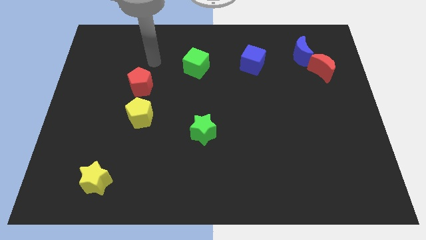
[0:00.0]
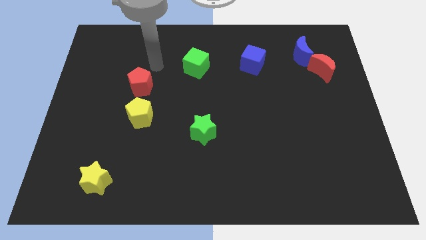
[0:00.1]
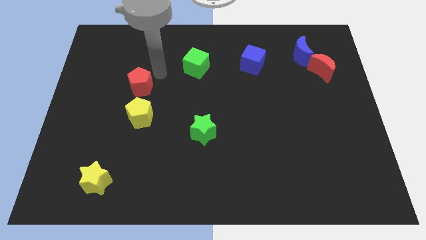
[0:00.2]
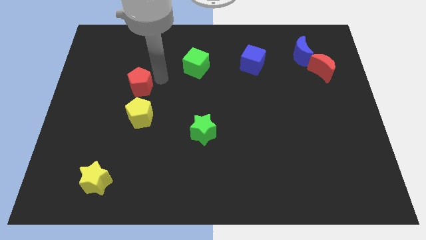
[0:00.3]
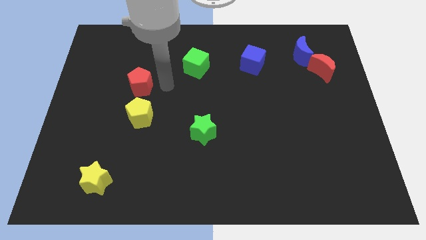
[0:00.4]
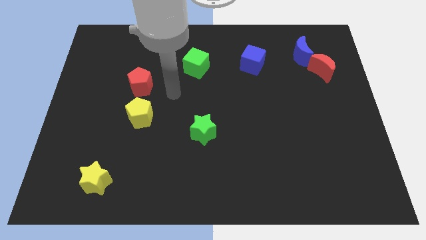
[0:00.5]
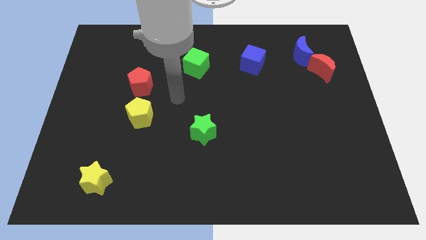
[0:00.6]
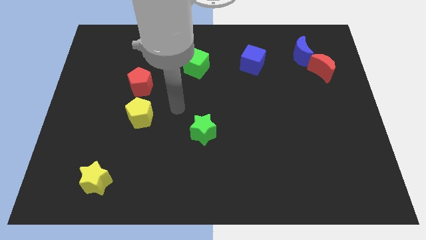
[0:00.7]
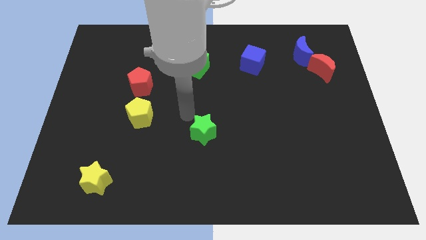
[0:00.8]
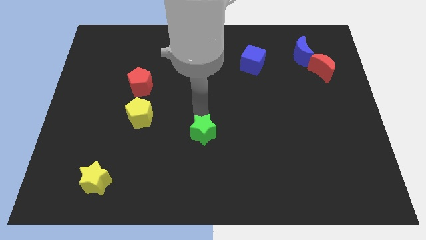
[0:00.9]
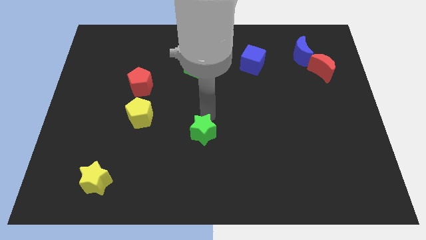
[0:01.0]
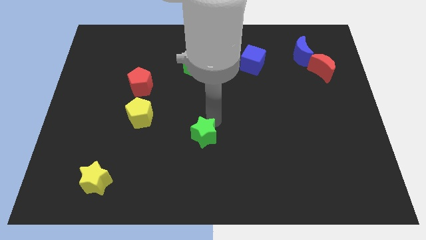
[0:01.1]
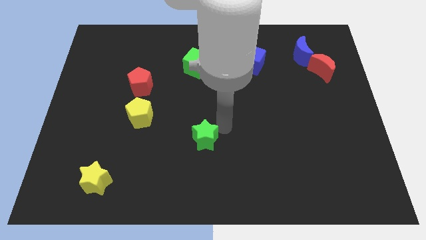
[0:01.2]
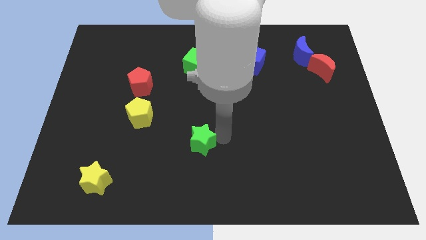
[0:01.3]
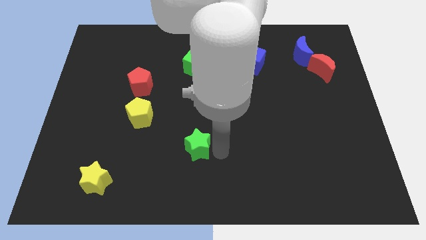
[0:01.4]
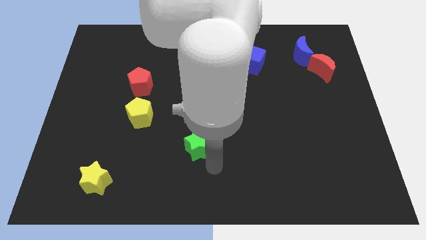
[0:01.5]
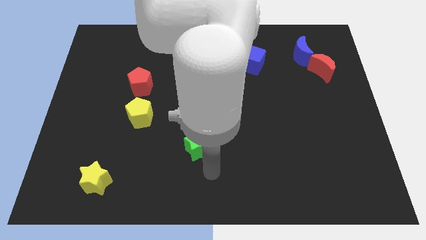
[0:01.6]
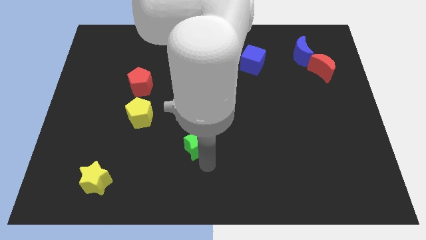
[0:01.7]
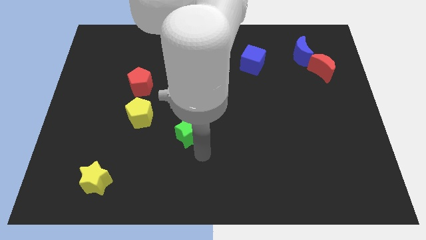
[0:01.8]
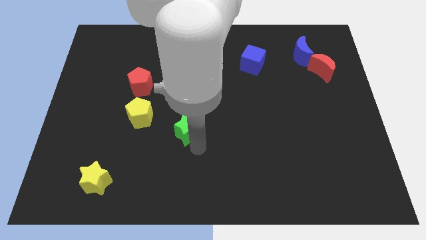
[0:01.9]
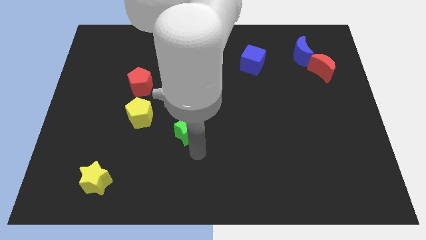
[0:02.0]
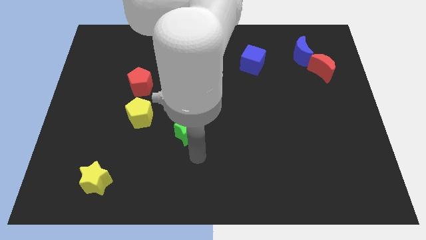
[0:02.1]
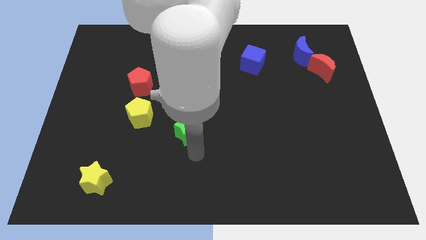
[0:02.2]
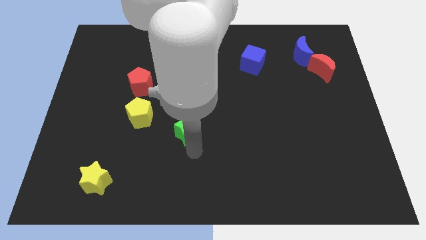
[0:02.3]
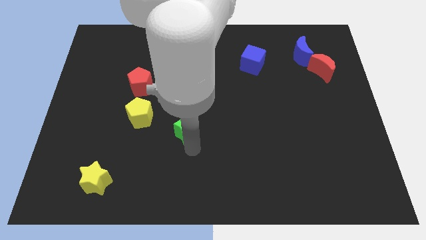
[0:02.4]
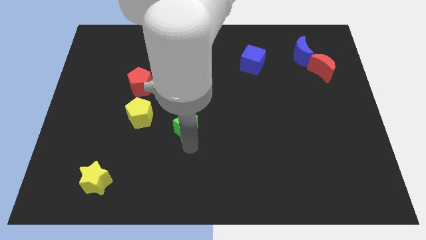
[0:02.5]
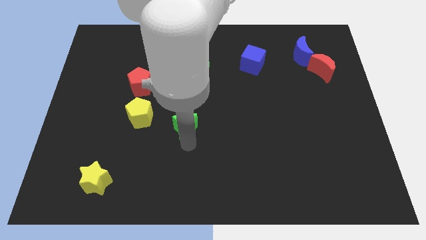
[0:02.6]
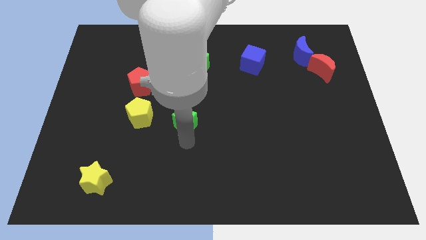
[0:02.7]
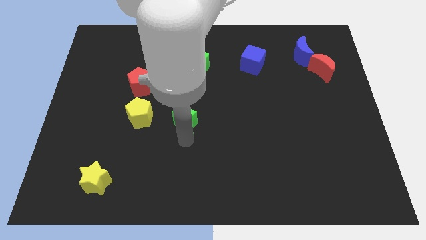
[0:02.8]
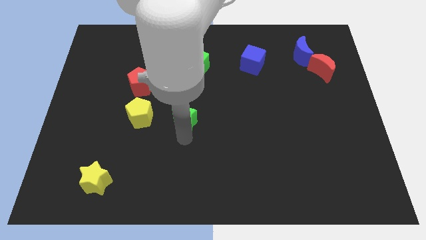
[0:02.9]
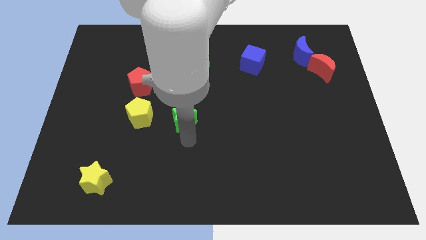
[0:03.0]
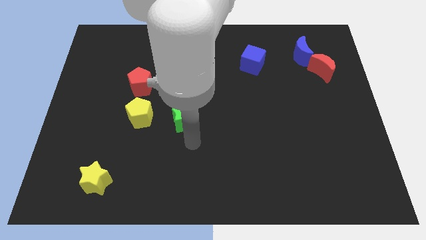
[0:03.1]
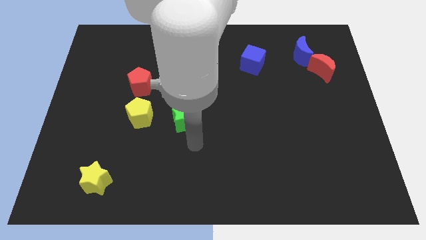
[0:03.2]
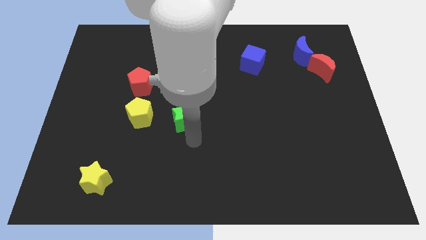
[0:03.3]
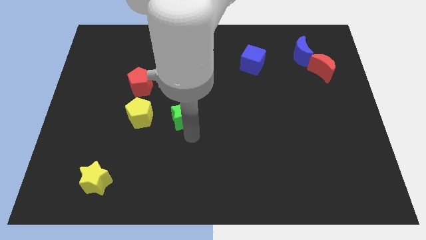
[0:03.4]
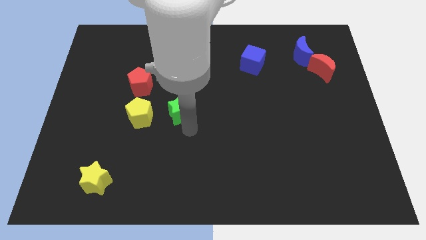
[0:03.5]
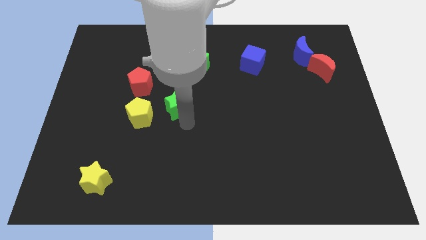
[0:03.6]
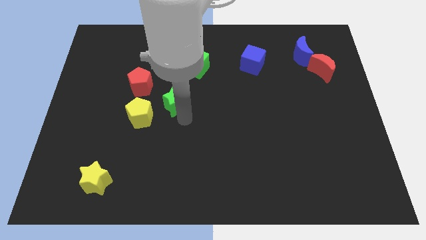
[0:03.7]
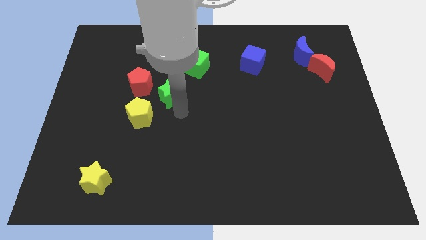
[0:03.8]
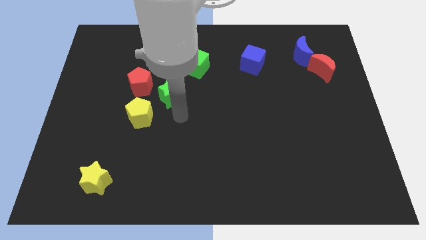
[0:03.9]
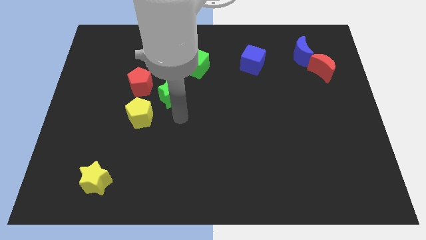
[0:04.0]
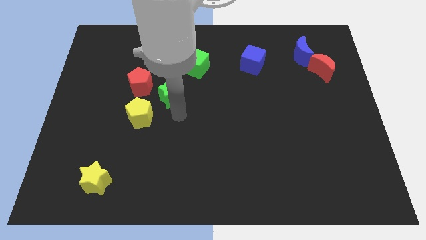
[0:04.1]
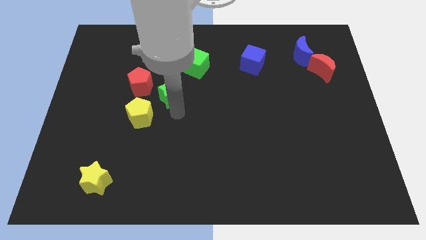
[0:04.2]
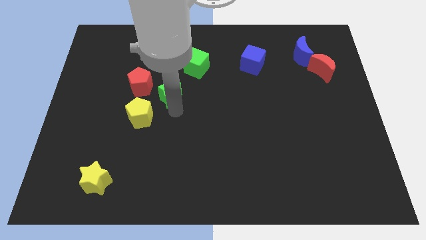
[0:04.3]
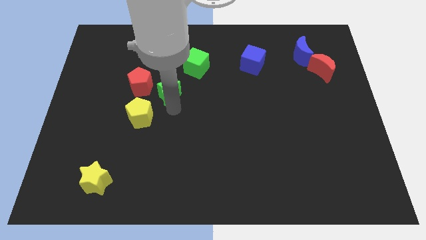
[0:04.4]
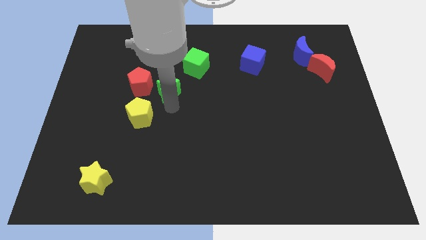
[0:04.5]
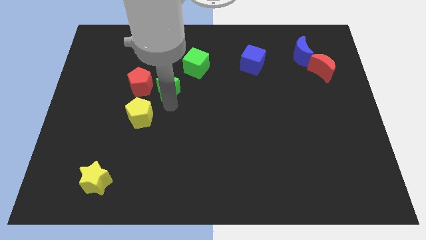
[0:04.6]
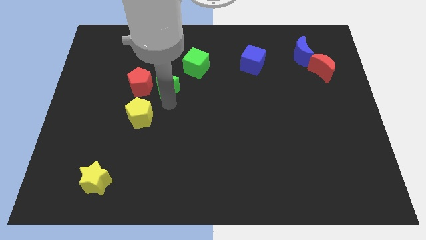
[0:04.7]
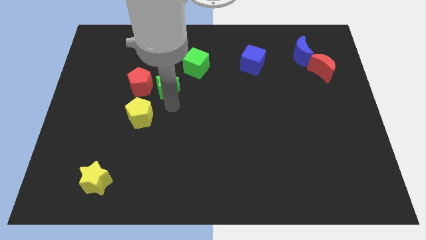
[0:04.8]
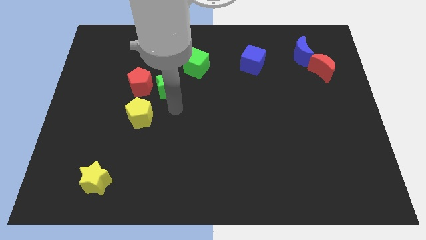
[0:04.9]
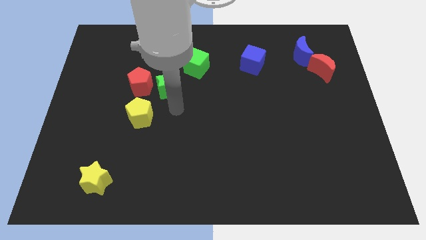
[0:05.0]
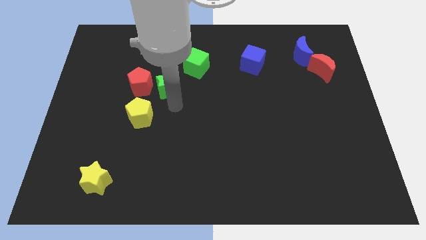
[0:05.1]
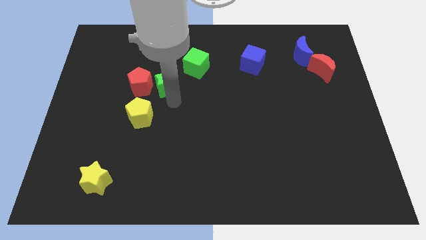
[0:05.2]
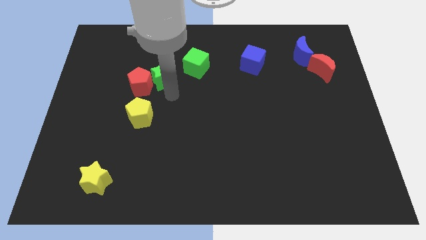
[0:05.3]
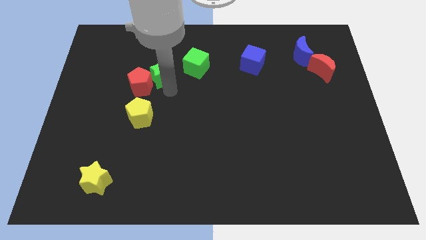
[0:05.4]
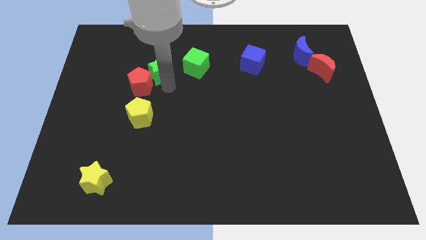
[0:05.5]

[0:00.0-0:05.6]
slide the green star to the top of the red pentagon
